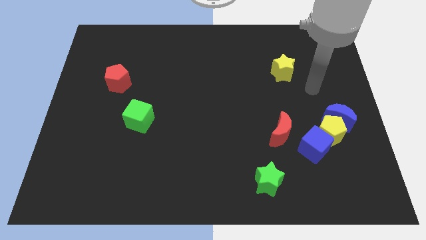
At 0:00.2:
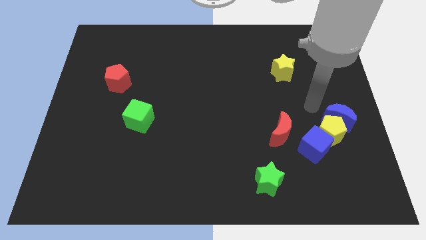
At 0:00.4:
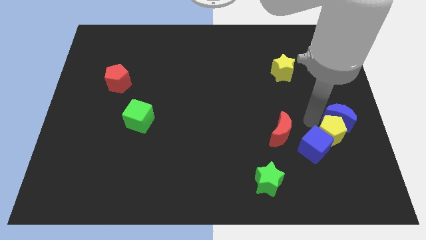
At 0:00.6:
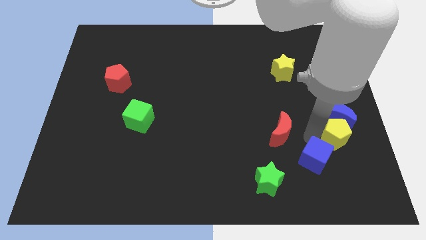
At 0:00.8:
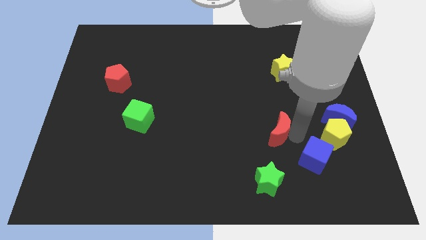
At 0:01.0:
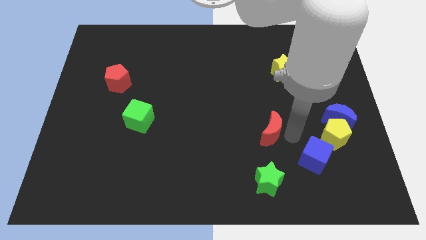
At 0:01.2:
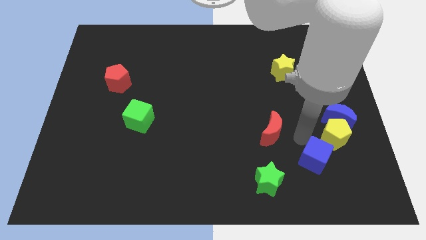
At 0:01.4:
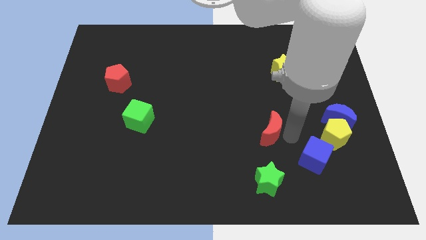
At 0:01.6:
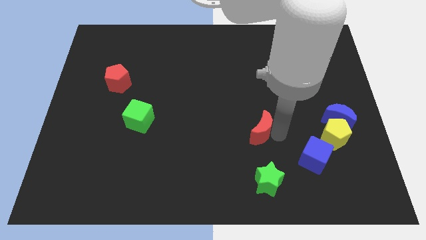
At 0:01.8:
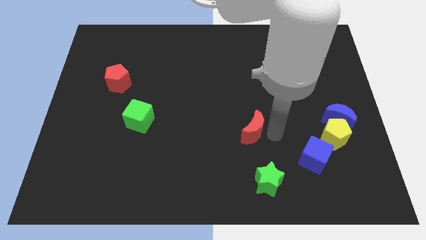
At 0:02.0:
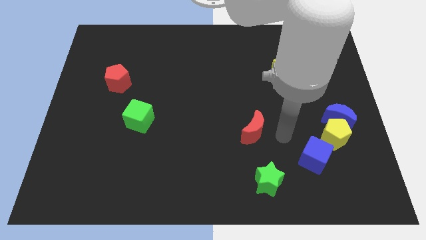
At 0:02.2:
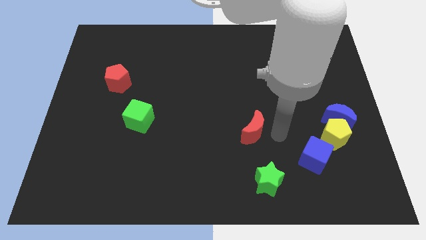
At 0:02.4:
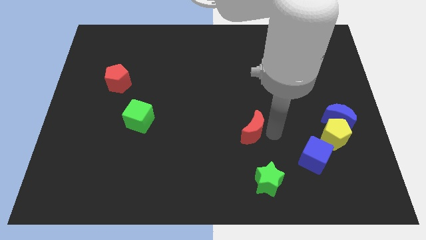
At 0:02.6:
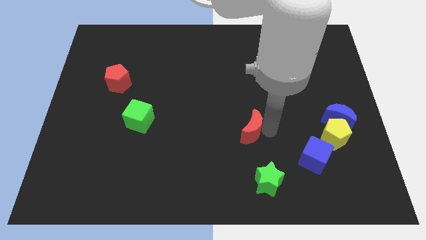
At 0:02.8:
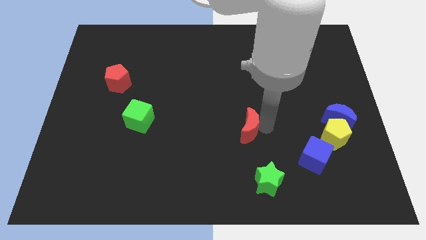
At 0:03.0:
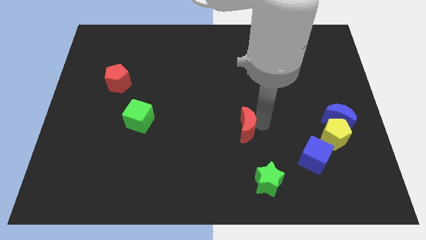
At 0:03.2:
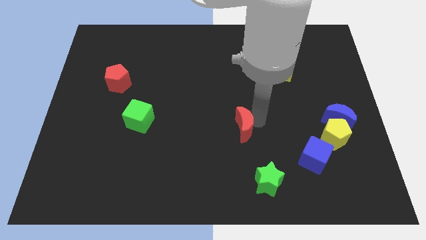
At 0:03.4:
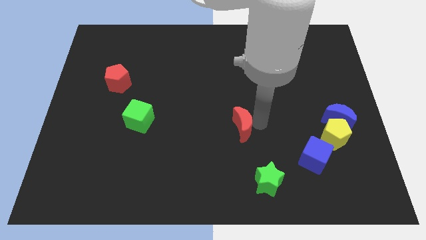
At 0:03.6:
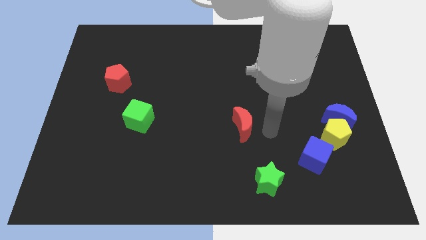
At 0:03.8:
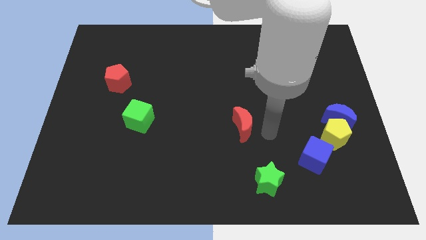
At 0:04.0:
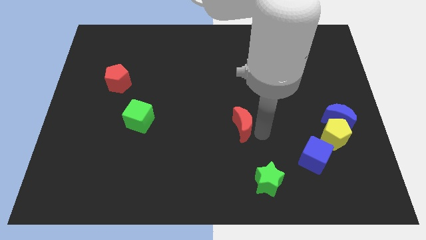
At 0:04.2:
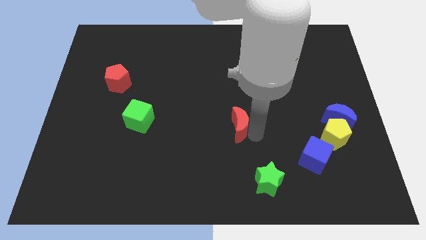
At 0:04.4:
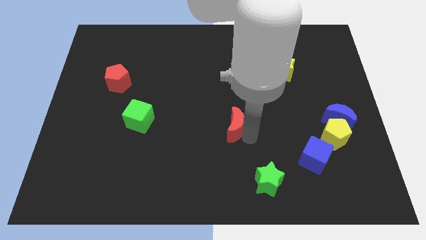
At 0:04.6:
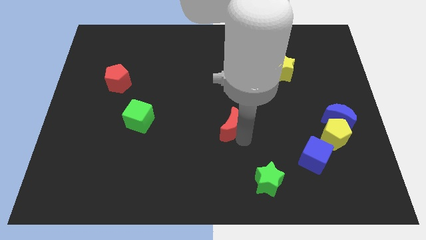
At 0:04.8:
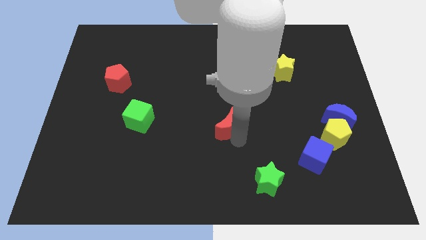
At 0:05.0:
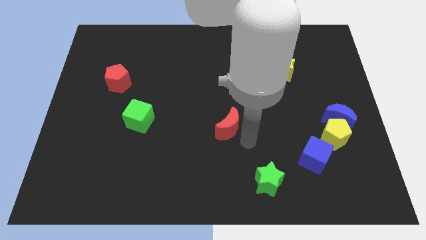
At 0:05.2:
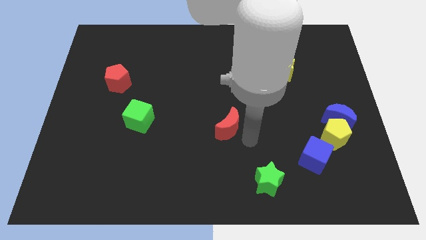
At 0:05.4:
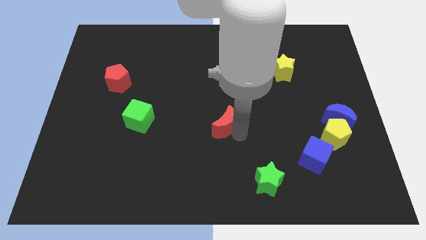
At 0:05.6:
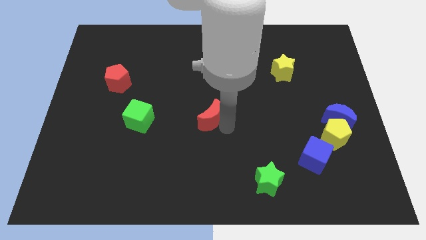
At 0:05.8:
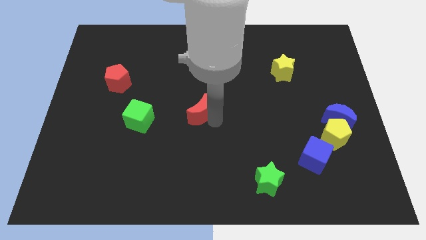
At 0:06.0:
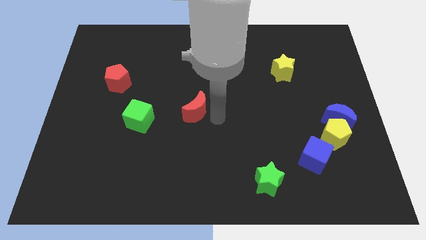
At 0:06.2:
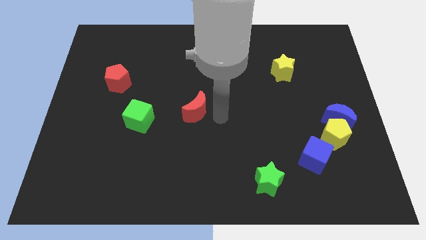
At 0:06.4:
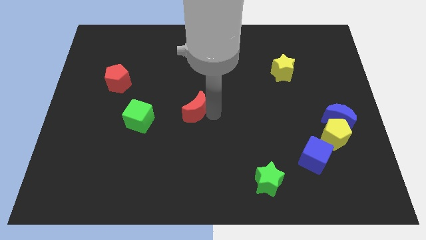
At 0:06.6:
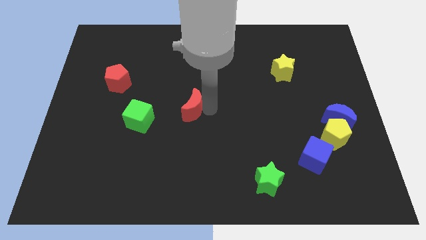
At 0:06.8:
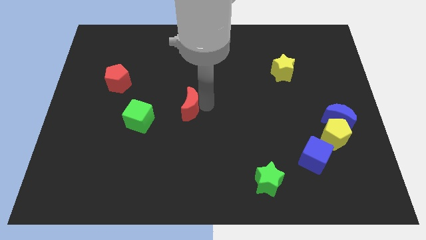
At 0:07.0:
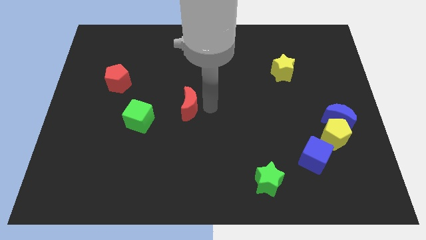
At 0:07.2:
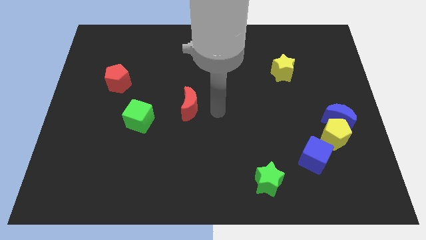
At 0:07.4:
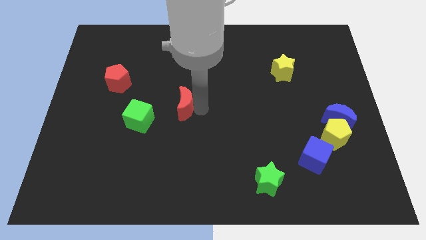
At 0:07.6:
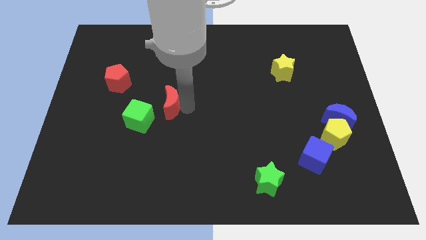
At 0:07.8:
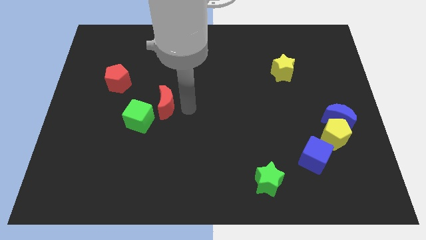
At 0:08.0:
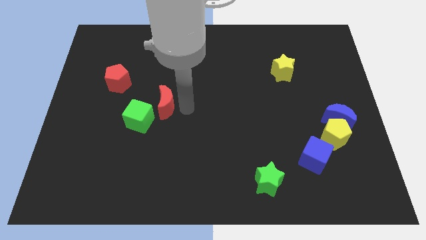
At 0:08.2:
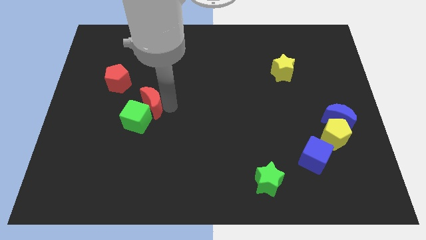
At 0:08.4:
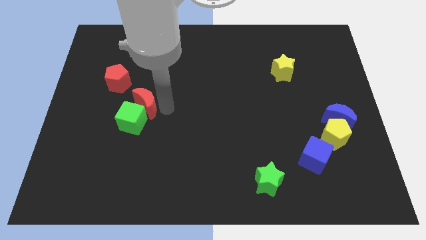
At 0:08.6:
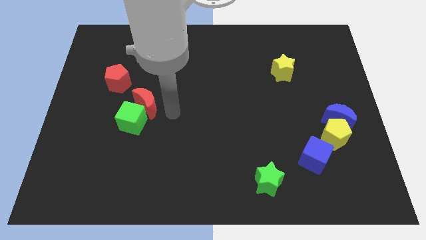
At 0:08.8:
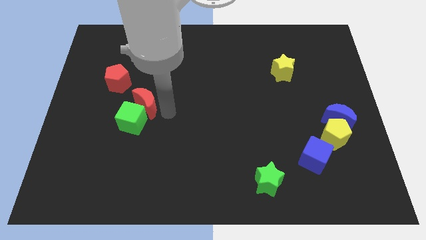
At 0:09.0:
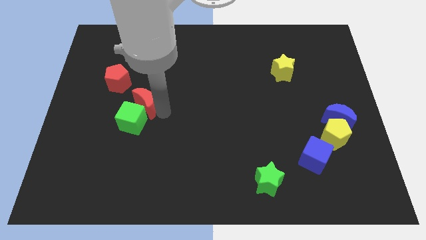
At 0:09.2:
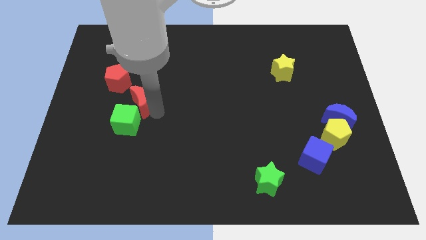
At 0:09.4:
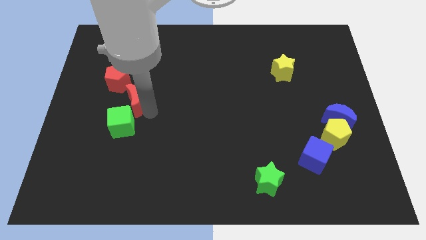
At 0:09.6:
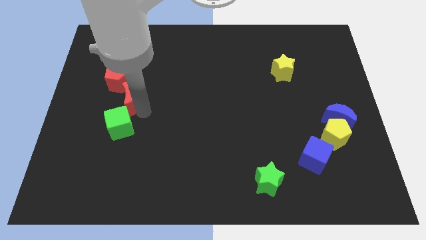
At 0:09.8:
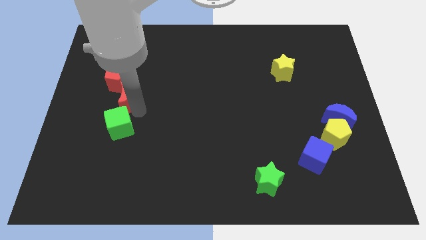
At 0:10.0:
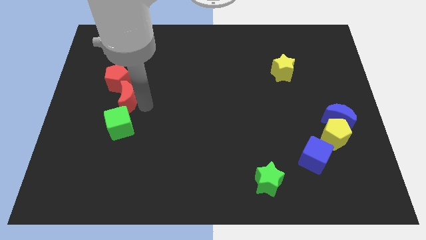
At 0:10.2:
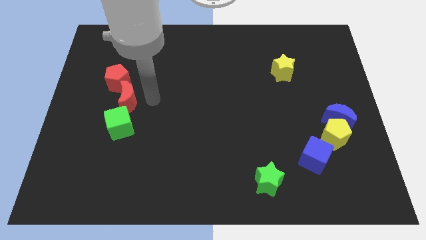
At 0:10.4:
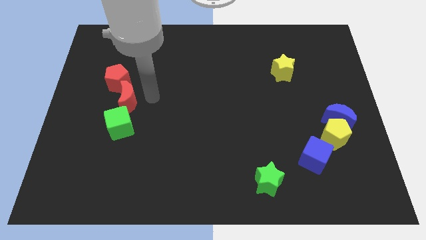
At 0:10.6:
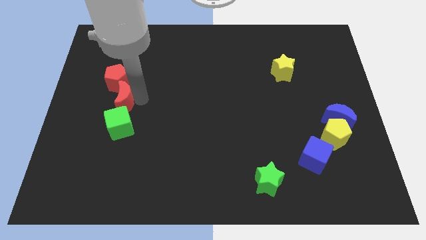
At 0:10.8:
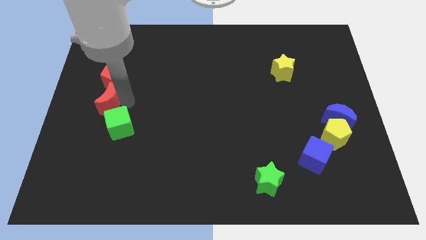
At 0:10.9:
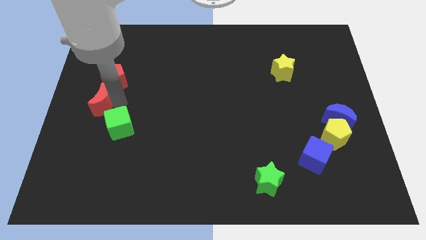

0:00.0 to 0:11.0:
push the red moon to the left side

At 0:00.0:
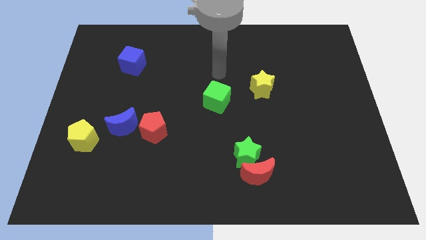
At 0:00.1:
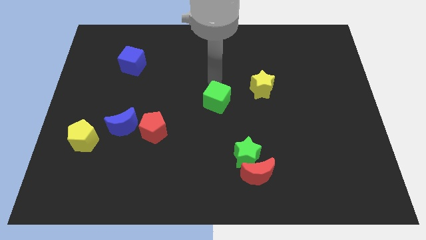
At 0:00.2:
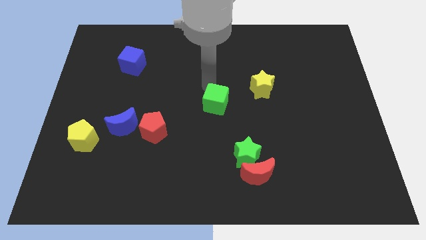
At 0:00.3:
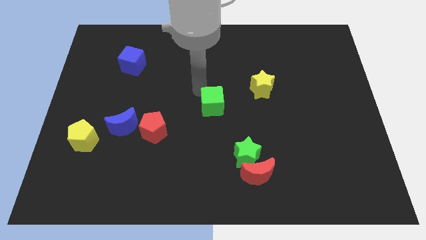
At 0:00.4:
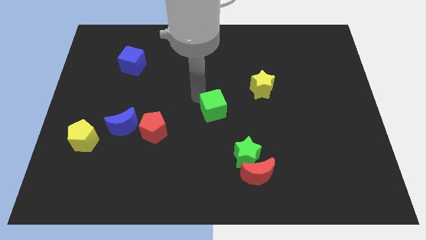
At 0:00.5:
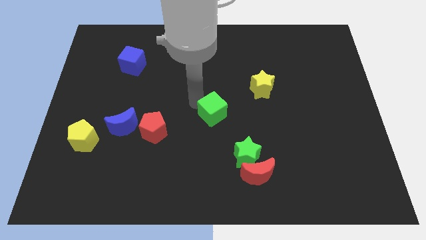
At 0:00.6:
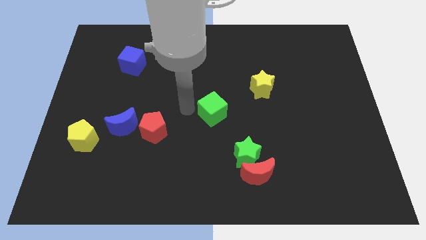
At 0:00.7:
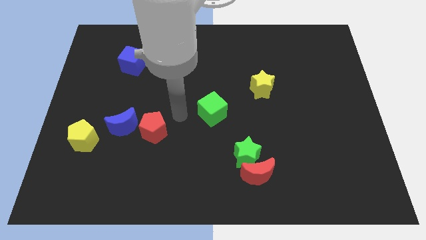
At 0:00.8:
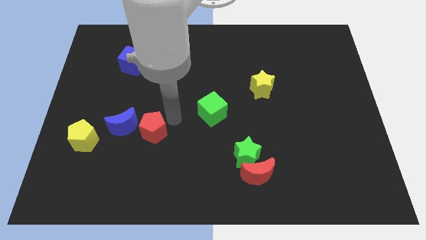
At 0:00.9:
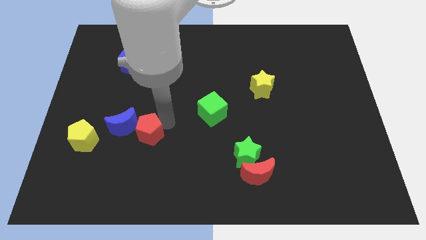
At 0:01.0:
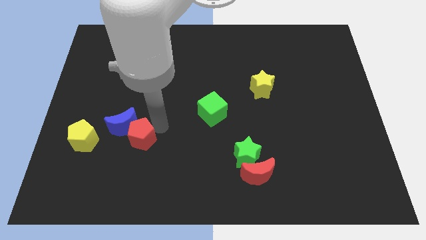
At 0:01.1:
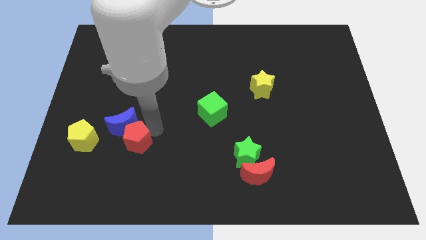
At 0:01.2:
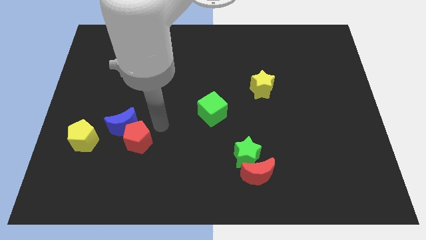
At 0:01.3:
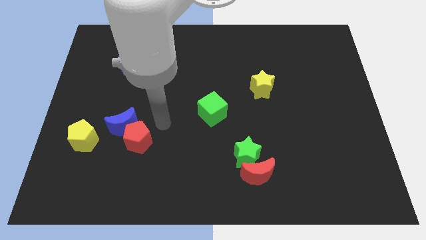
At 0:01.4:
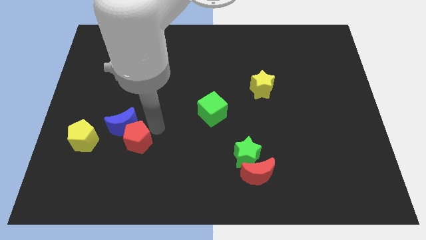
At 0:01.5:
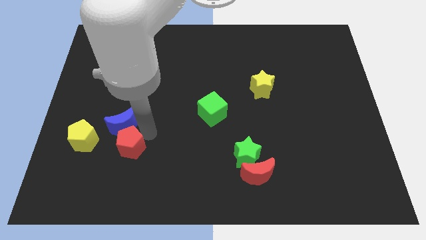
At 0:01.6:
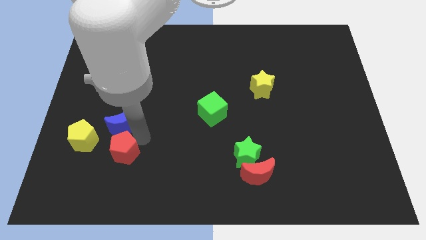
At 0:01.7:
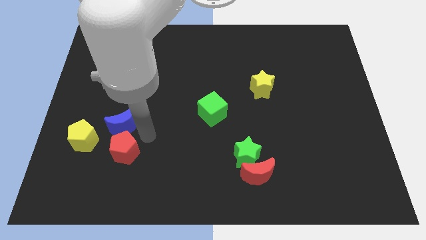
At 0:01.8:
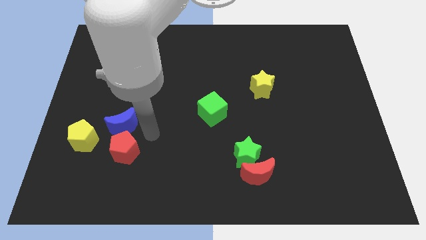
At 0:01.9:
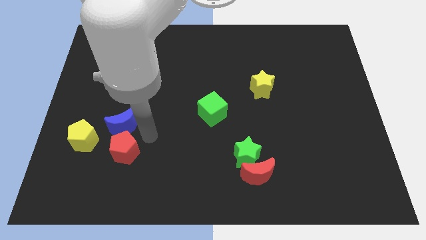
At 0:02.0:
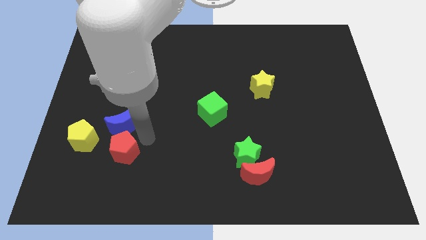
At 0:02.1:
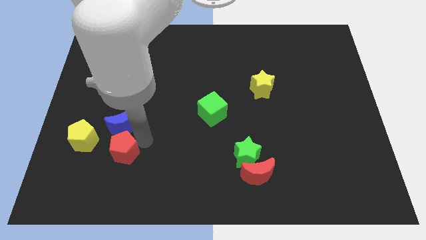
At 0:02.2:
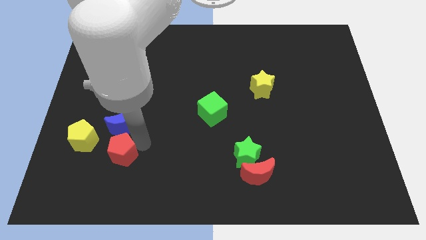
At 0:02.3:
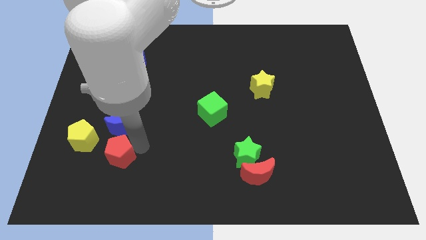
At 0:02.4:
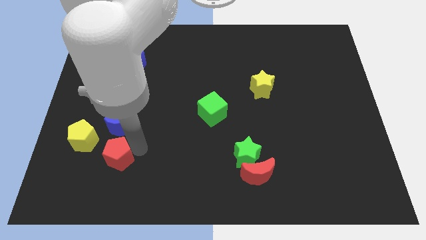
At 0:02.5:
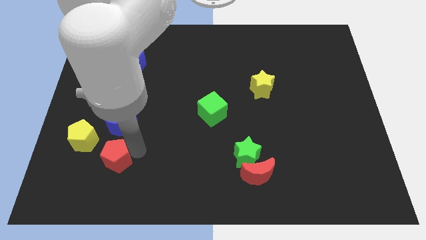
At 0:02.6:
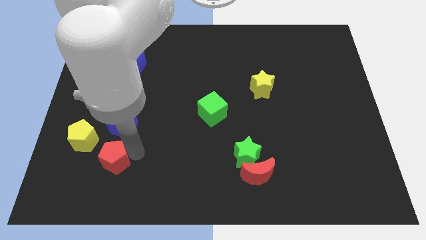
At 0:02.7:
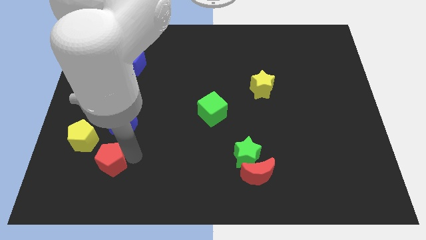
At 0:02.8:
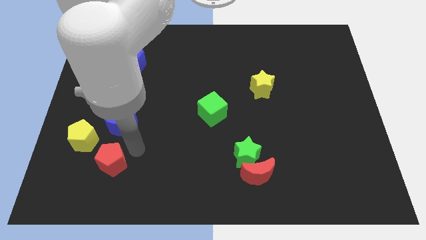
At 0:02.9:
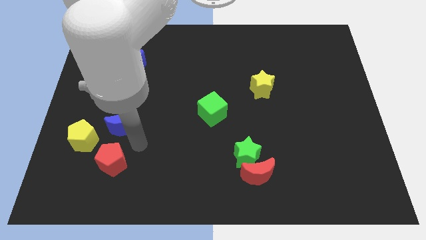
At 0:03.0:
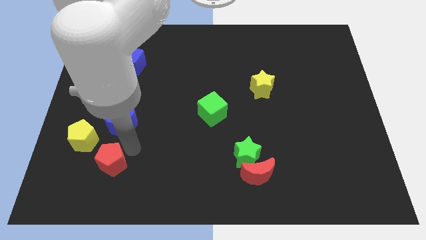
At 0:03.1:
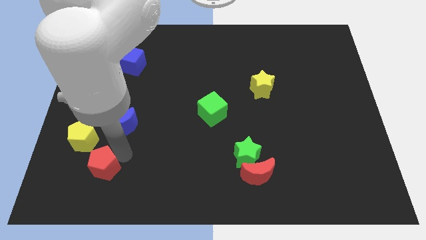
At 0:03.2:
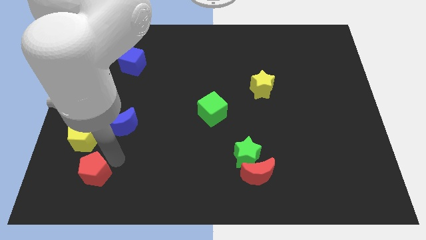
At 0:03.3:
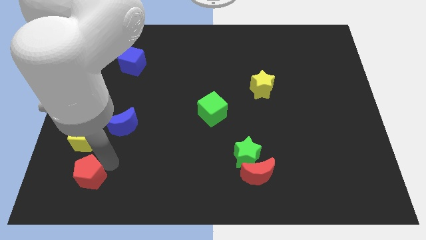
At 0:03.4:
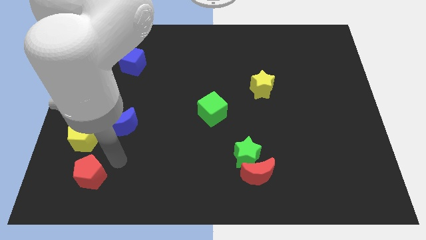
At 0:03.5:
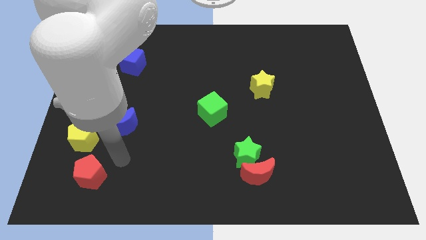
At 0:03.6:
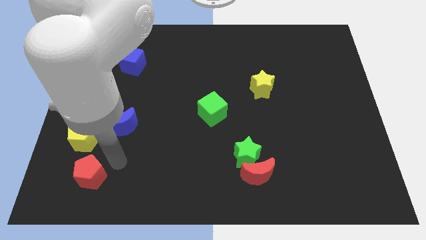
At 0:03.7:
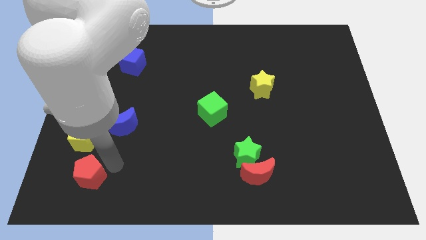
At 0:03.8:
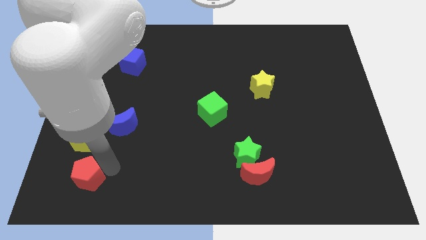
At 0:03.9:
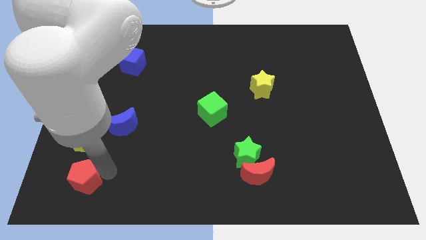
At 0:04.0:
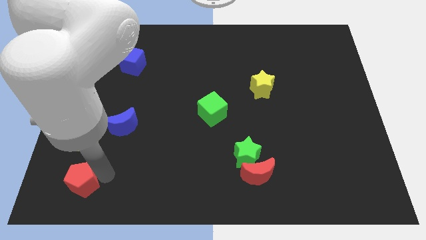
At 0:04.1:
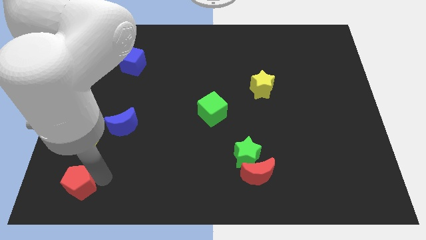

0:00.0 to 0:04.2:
move the red pentagon to the bottom left of the board
